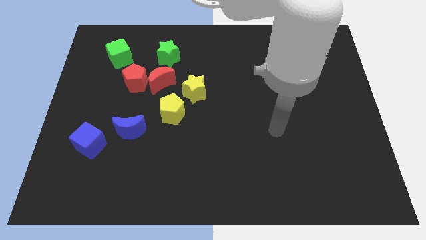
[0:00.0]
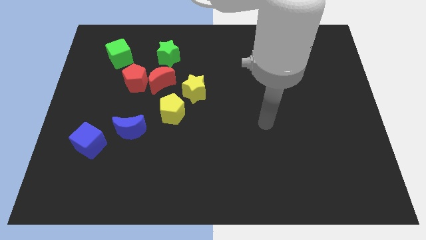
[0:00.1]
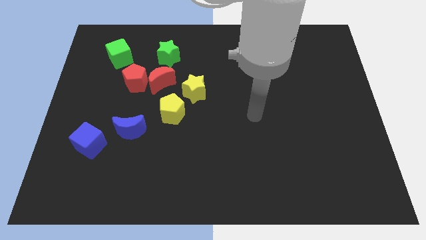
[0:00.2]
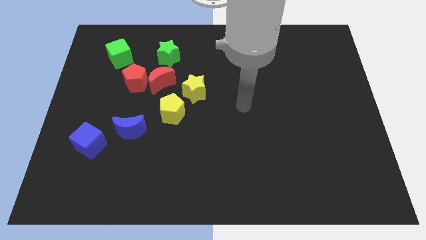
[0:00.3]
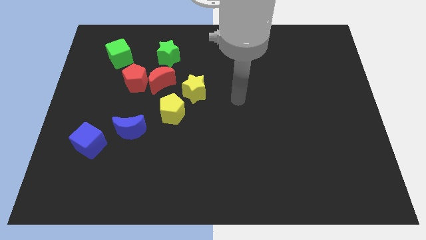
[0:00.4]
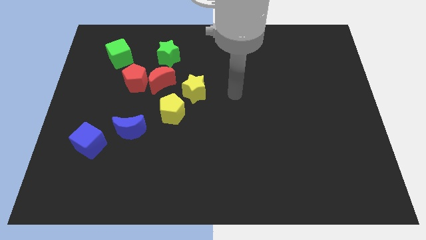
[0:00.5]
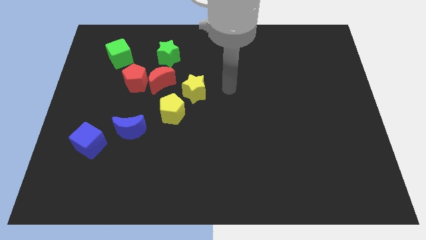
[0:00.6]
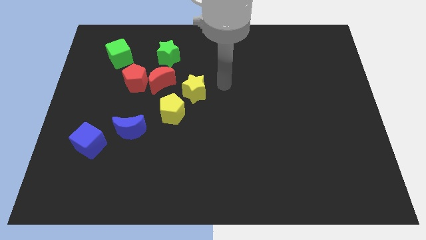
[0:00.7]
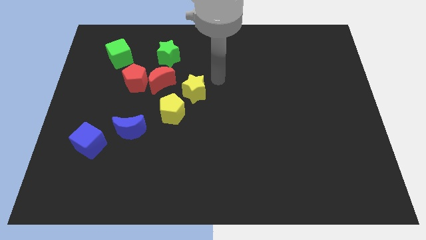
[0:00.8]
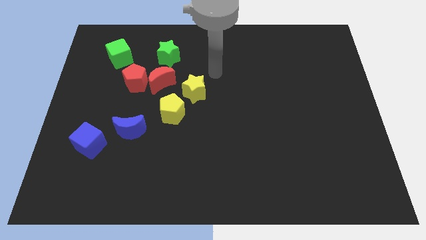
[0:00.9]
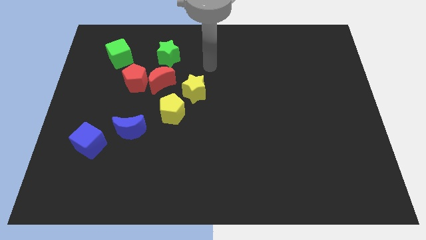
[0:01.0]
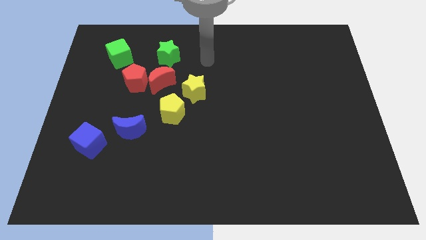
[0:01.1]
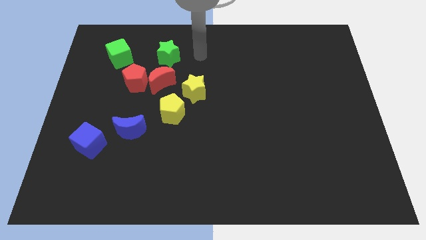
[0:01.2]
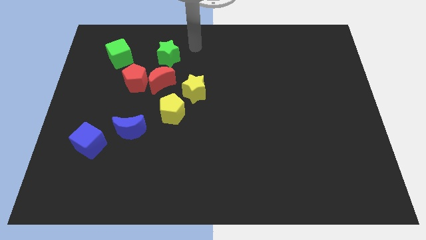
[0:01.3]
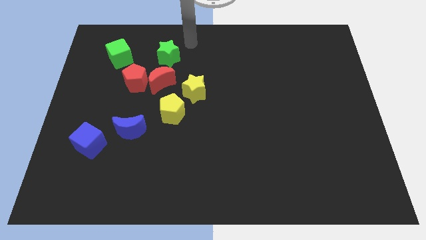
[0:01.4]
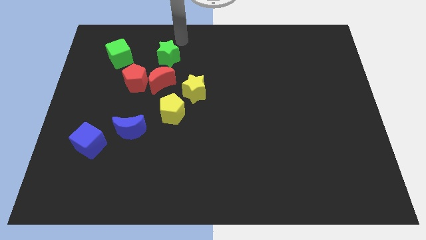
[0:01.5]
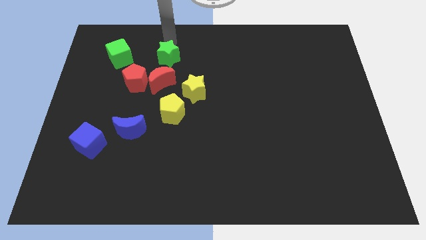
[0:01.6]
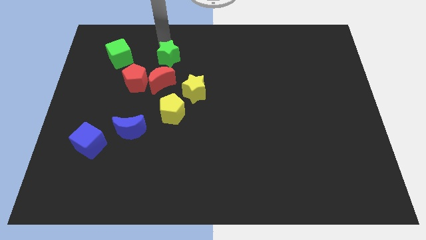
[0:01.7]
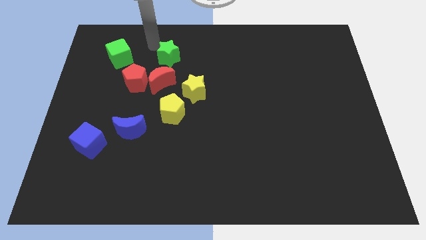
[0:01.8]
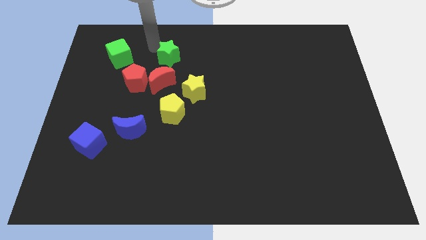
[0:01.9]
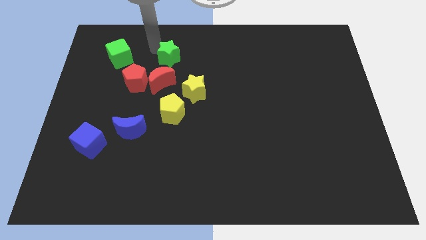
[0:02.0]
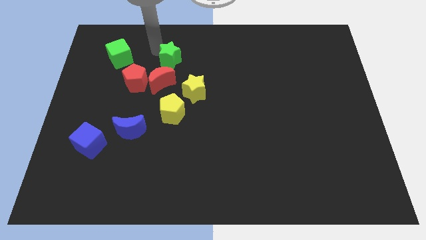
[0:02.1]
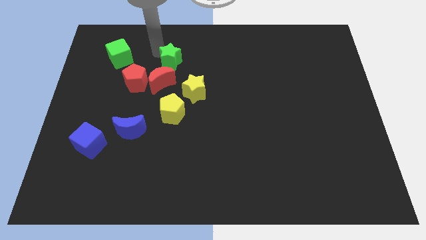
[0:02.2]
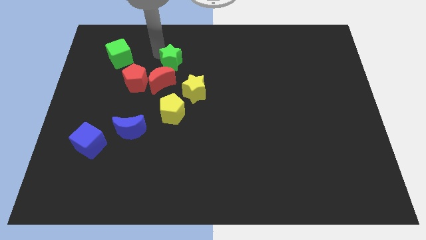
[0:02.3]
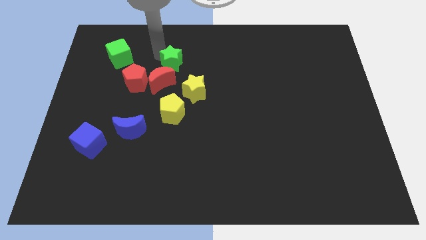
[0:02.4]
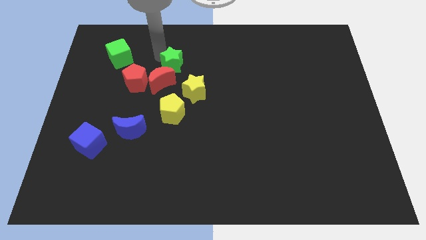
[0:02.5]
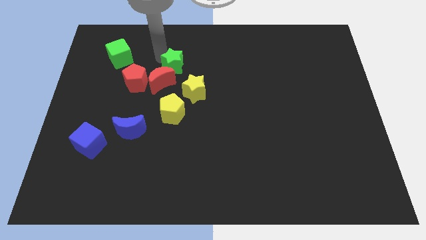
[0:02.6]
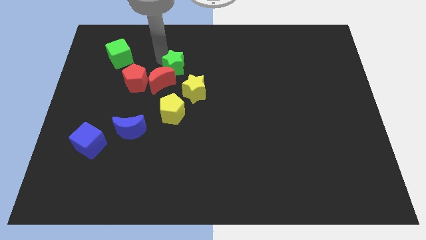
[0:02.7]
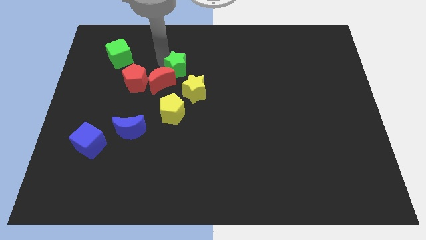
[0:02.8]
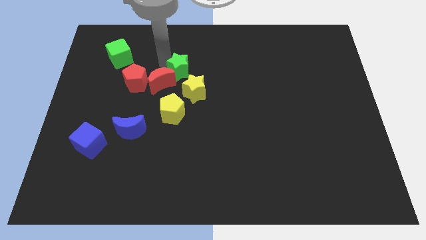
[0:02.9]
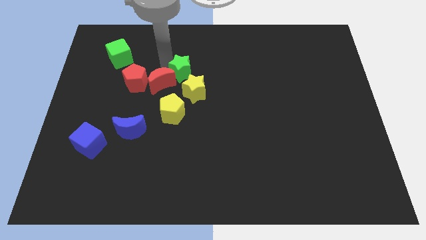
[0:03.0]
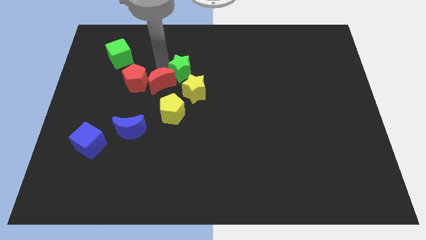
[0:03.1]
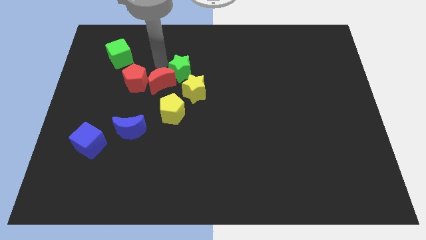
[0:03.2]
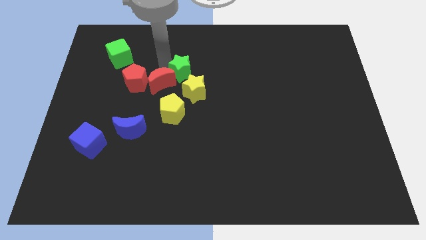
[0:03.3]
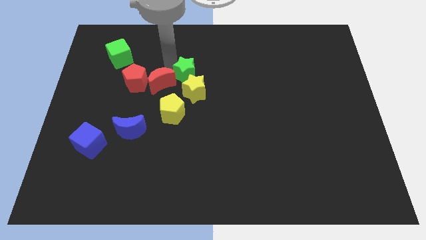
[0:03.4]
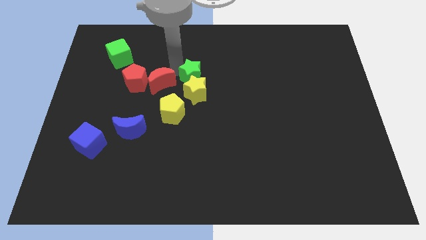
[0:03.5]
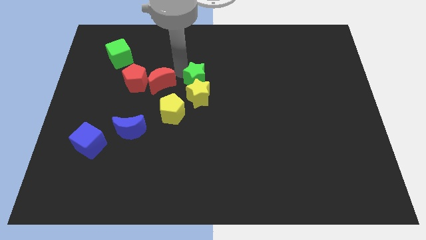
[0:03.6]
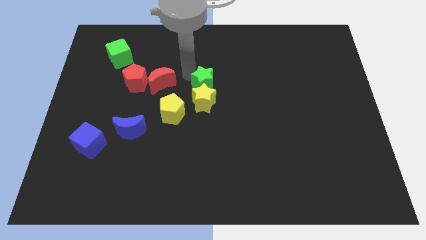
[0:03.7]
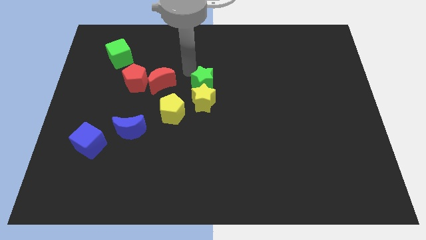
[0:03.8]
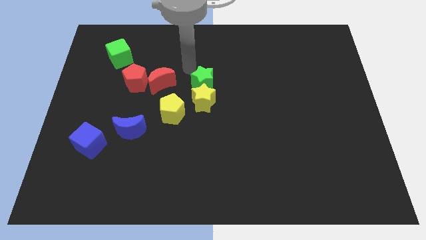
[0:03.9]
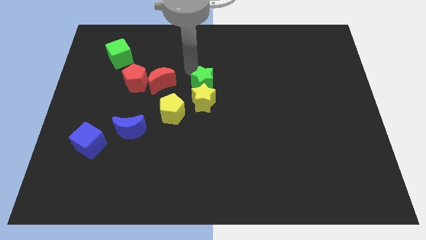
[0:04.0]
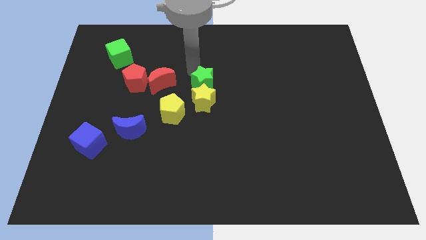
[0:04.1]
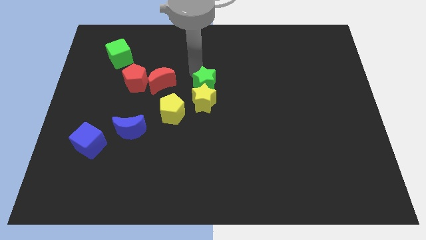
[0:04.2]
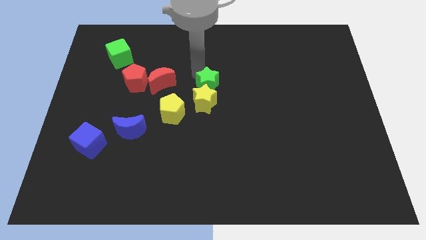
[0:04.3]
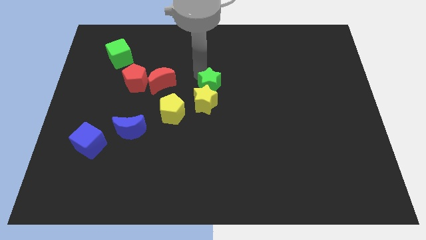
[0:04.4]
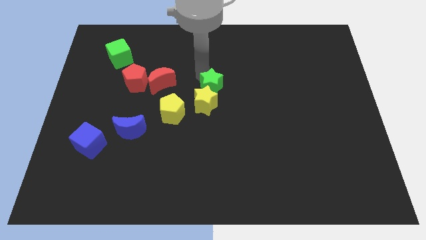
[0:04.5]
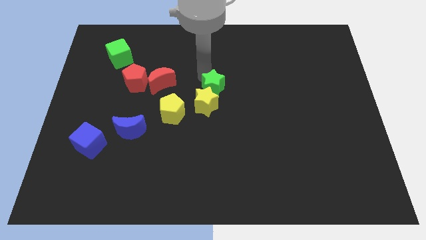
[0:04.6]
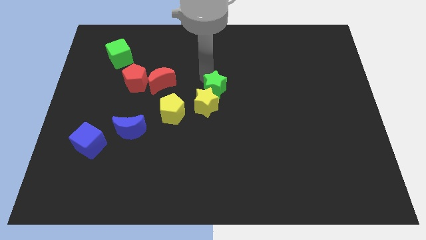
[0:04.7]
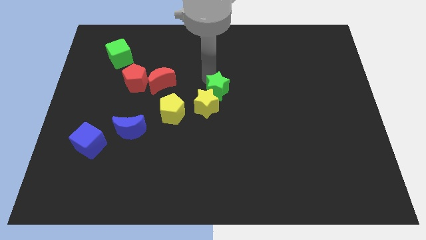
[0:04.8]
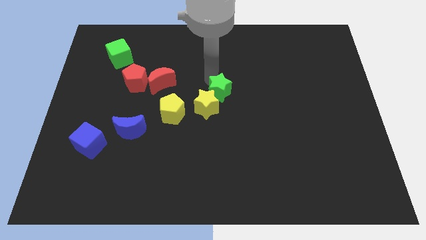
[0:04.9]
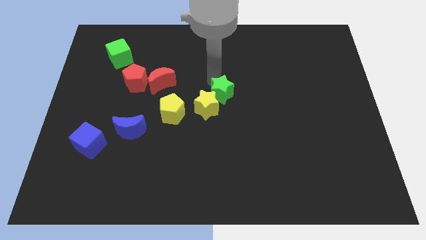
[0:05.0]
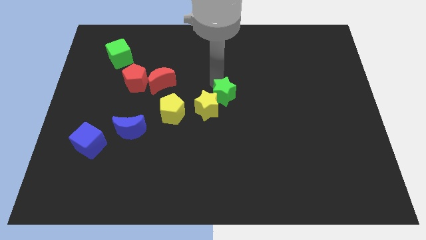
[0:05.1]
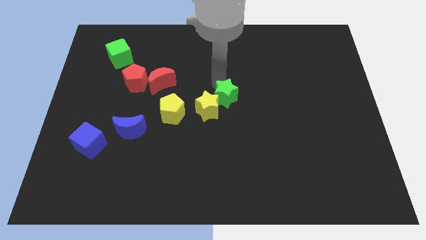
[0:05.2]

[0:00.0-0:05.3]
move the green star to the right of the yellow pentagon

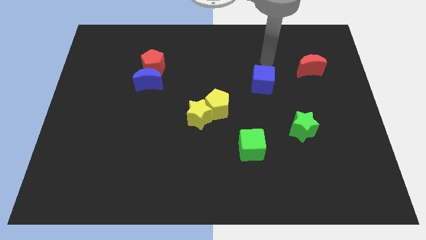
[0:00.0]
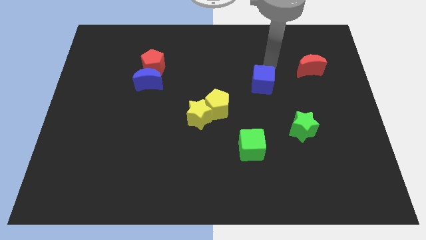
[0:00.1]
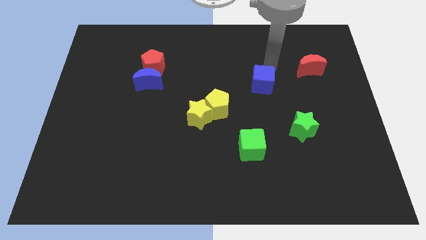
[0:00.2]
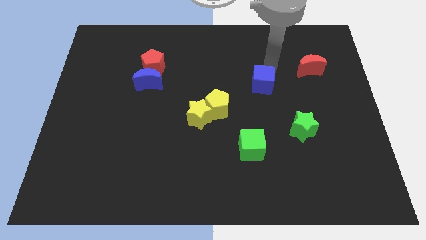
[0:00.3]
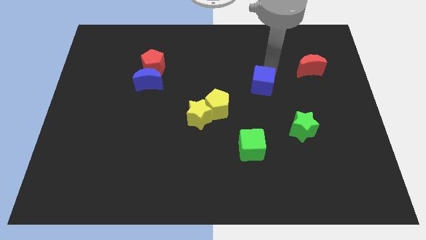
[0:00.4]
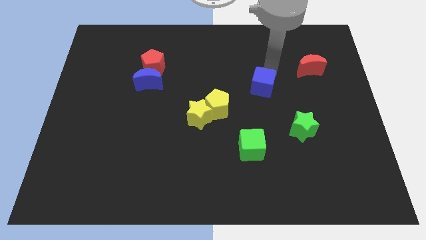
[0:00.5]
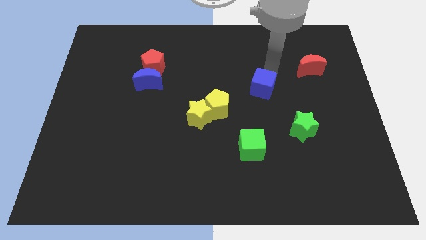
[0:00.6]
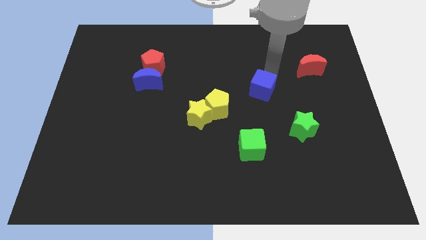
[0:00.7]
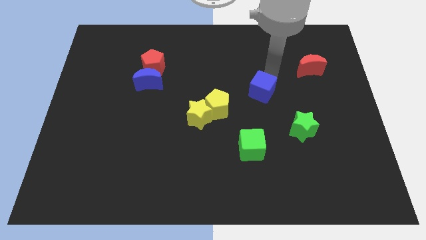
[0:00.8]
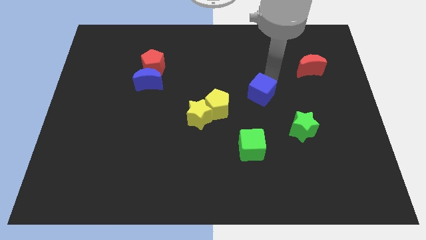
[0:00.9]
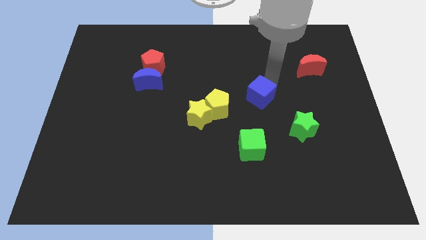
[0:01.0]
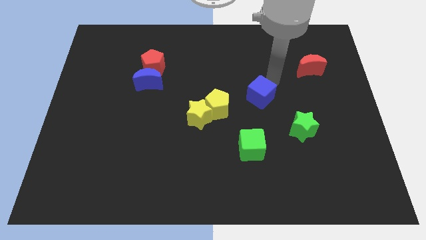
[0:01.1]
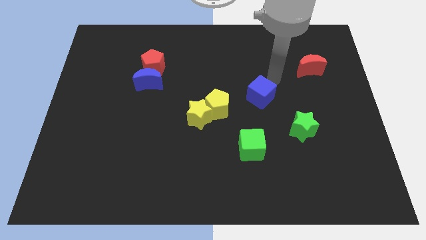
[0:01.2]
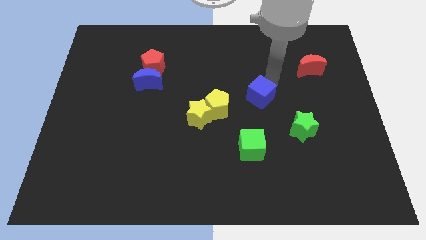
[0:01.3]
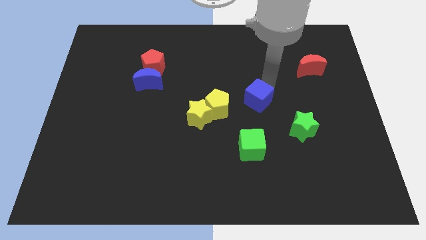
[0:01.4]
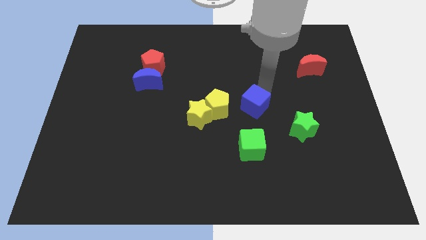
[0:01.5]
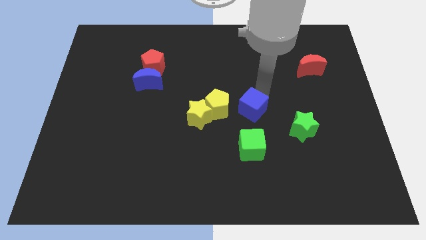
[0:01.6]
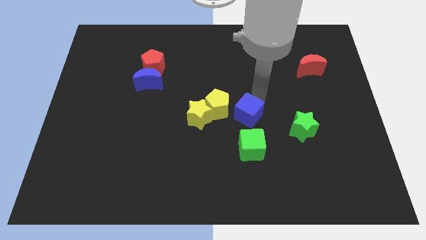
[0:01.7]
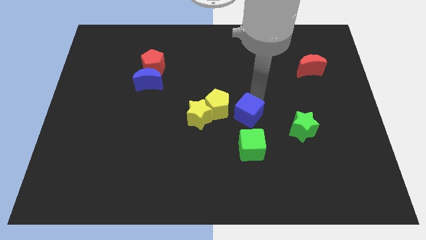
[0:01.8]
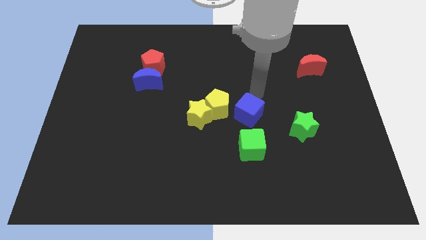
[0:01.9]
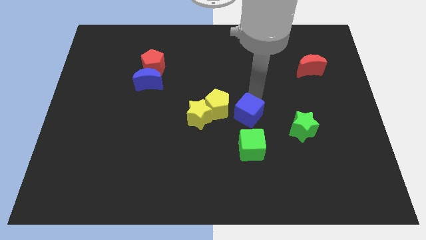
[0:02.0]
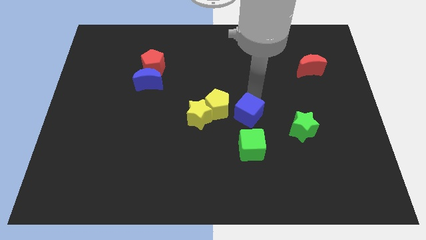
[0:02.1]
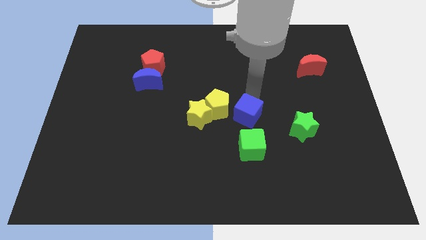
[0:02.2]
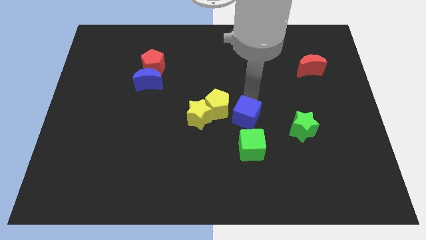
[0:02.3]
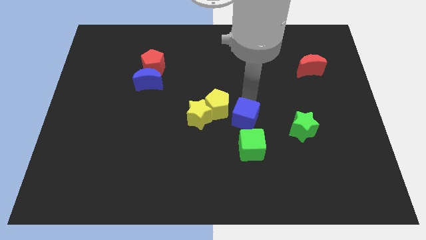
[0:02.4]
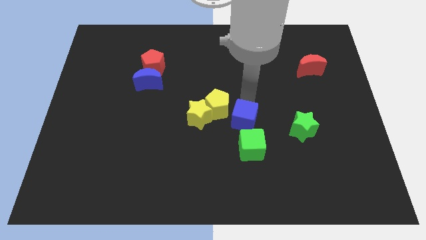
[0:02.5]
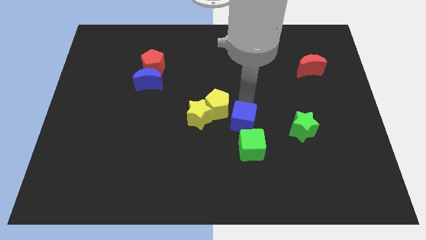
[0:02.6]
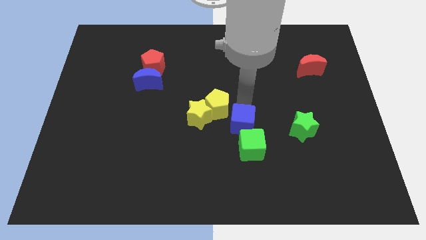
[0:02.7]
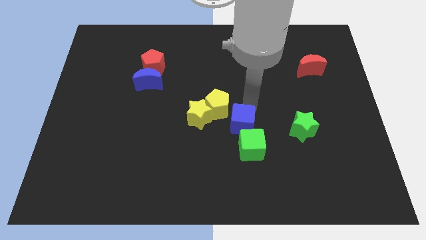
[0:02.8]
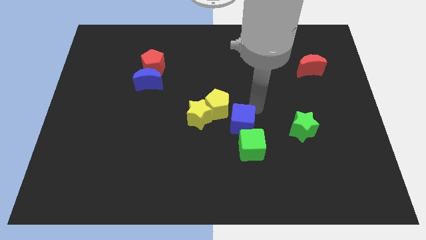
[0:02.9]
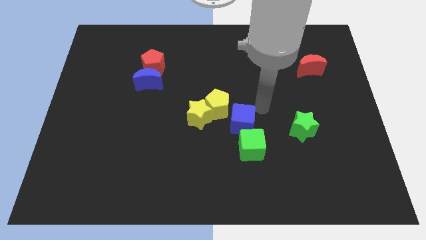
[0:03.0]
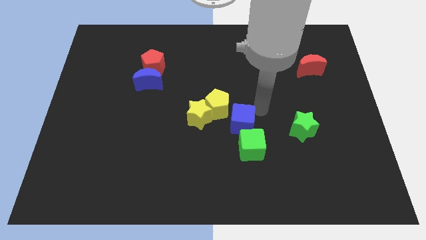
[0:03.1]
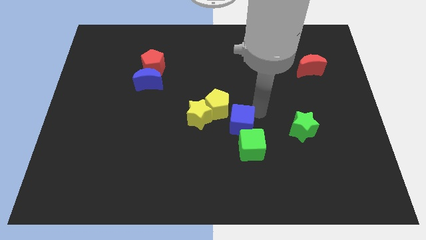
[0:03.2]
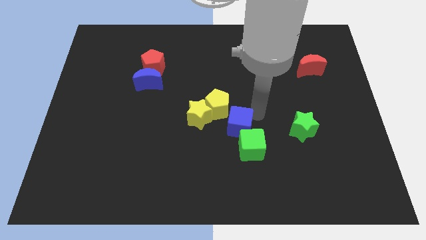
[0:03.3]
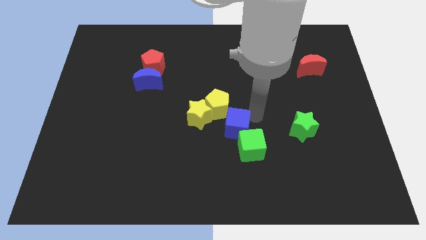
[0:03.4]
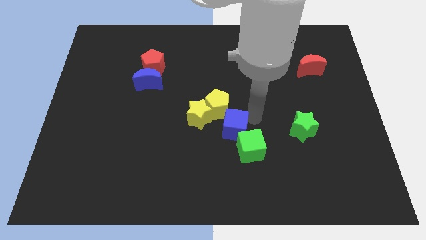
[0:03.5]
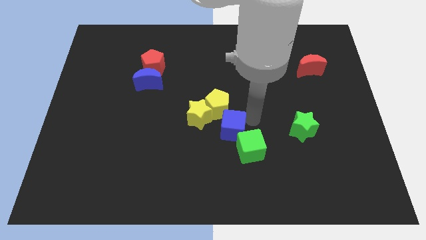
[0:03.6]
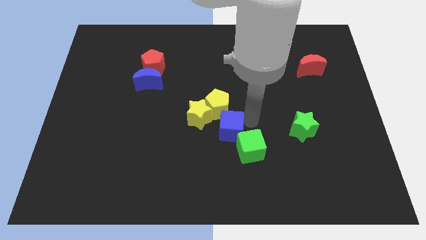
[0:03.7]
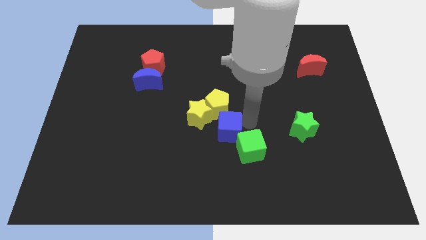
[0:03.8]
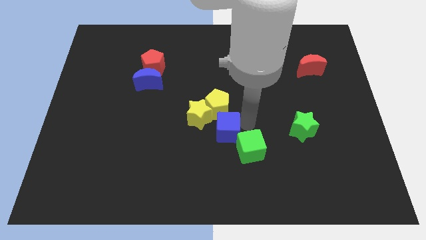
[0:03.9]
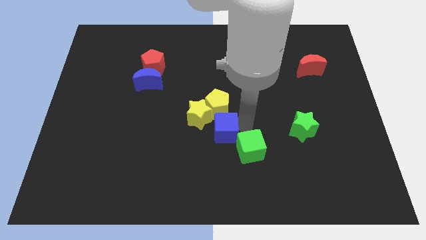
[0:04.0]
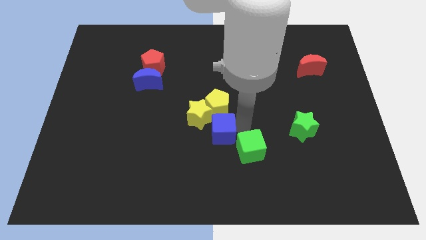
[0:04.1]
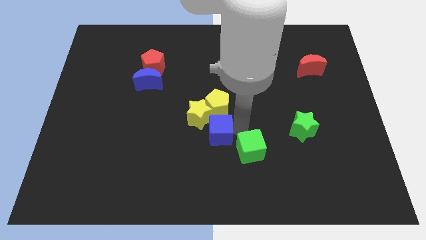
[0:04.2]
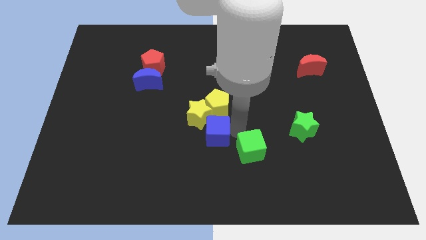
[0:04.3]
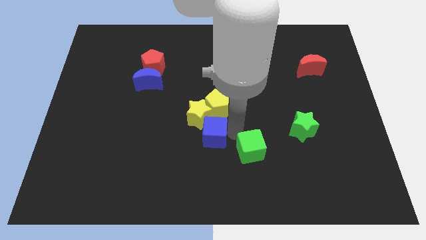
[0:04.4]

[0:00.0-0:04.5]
move the blue cube to the bottom left of the yellow pentagon
